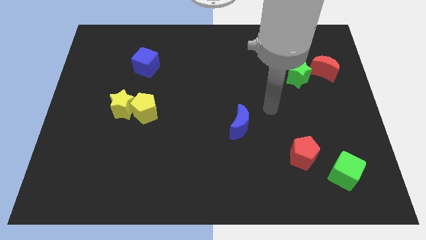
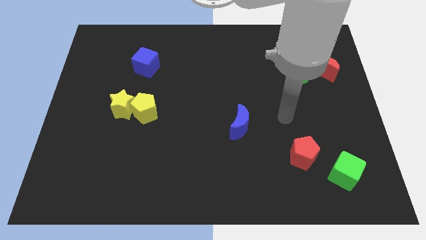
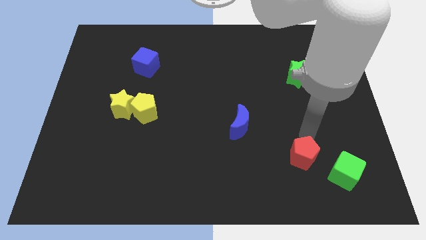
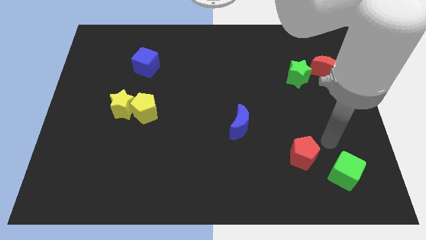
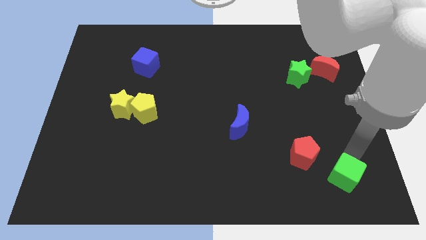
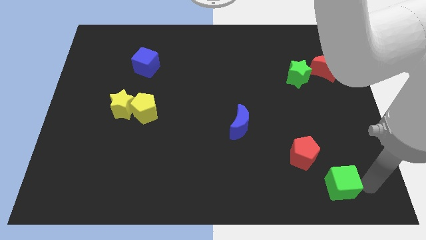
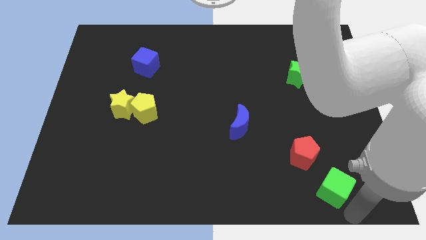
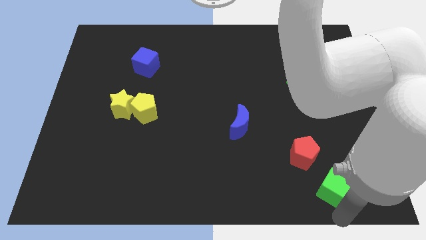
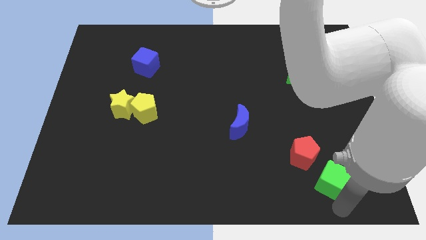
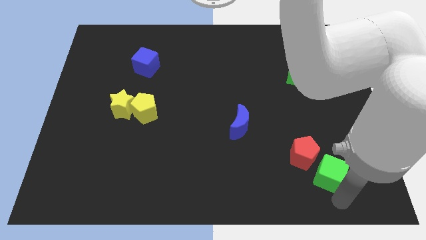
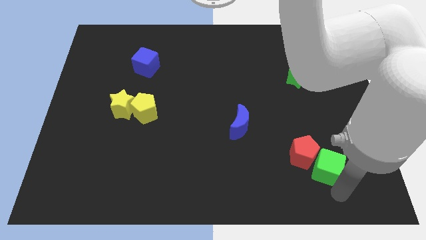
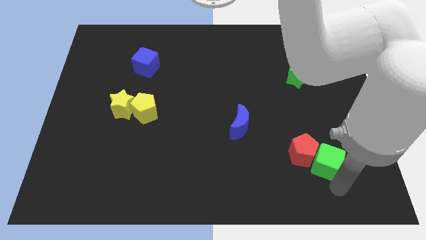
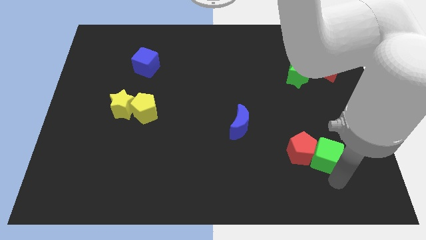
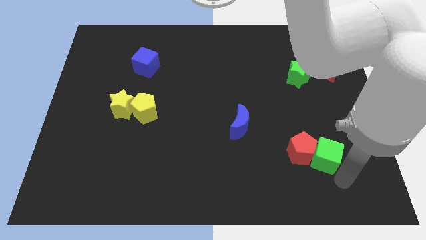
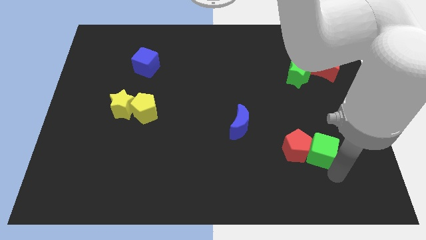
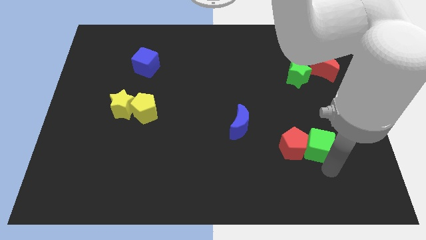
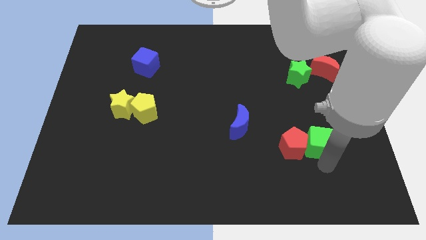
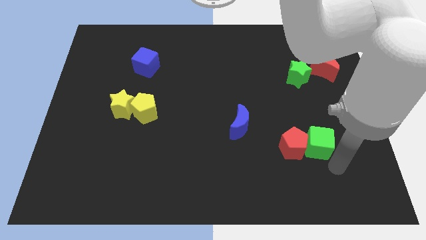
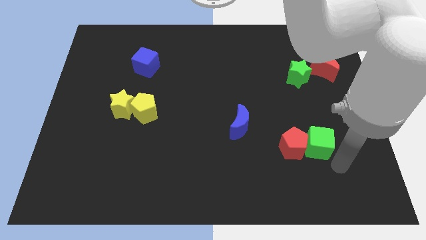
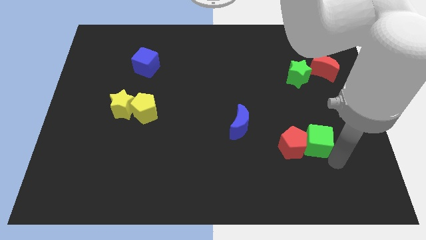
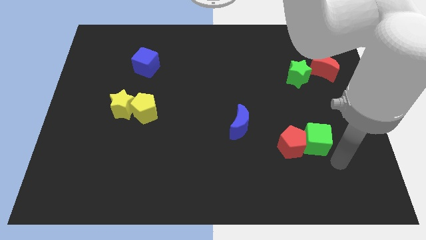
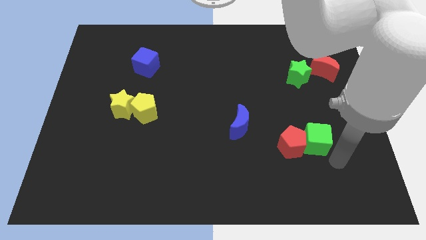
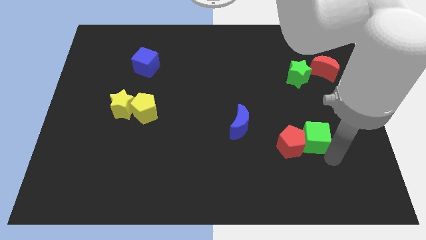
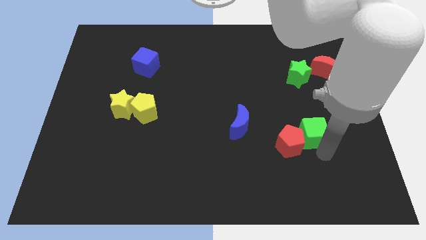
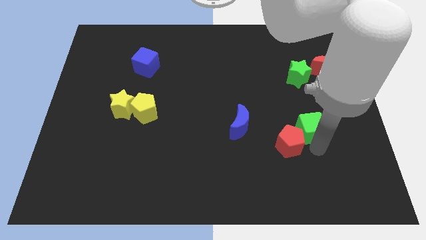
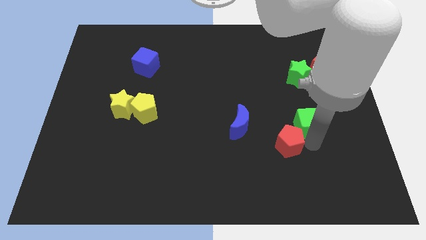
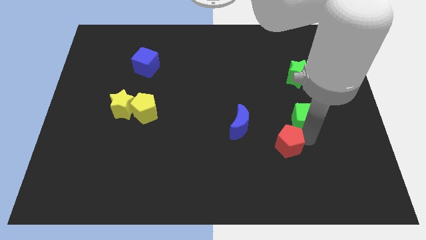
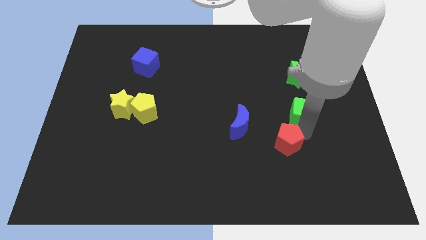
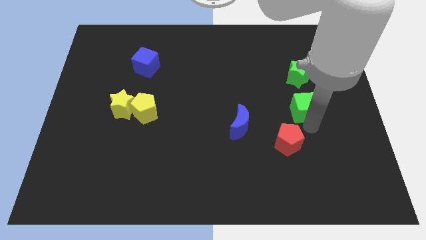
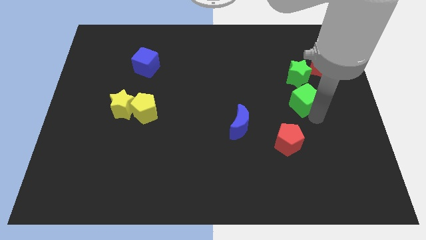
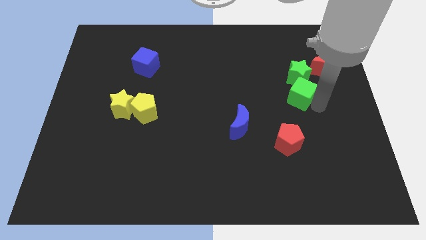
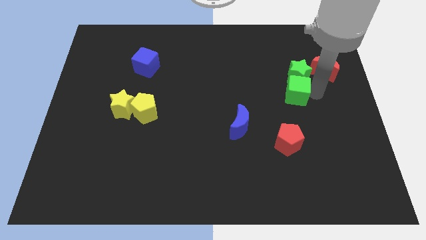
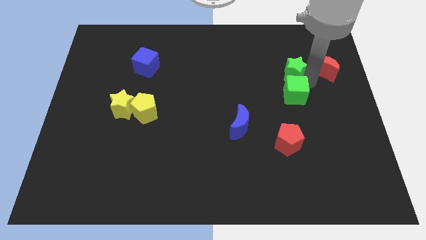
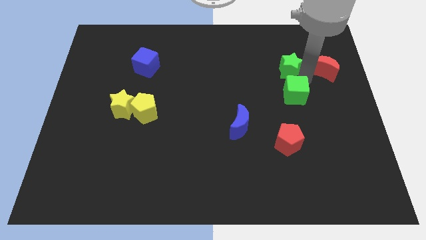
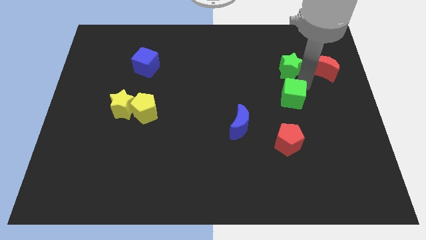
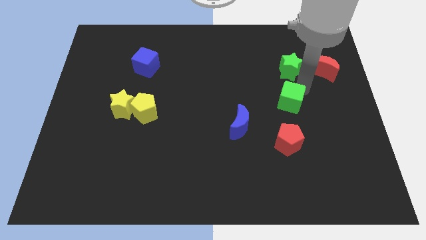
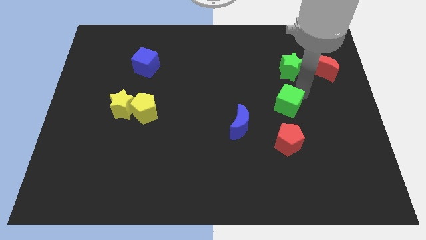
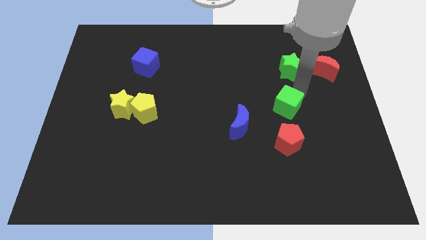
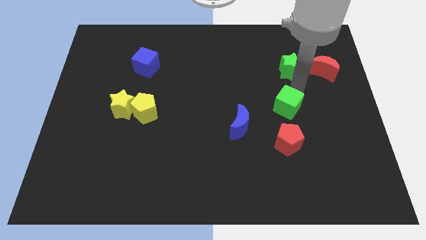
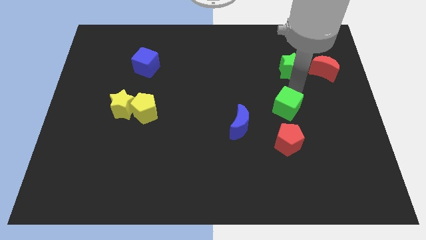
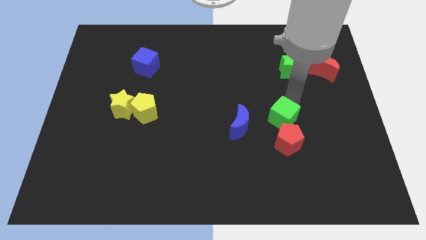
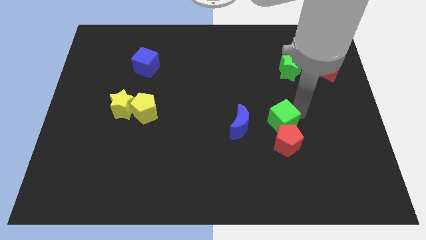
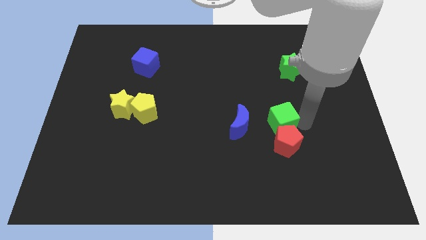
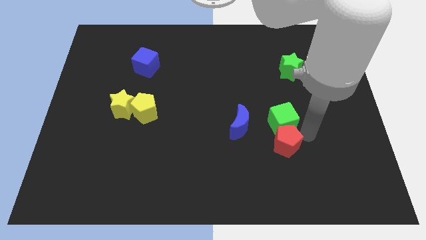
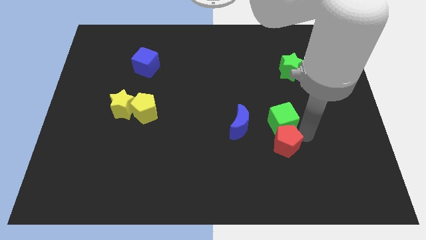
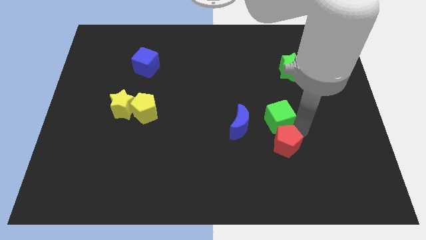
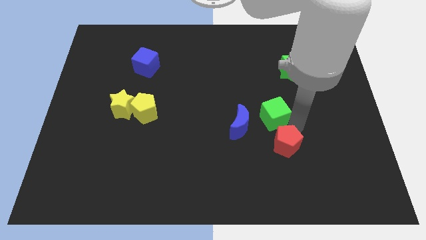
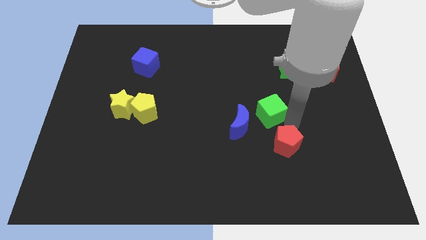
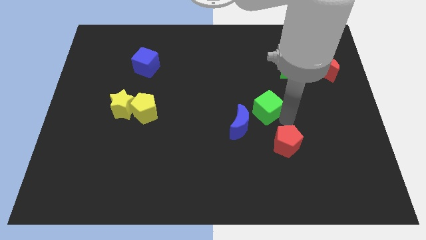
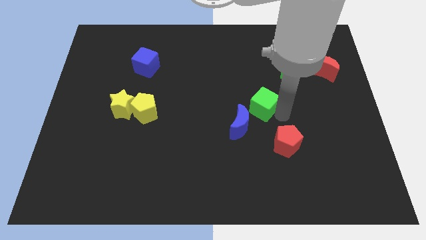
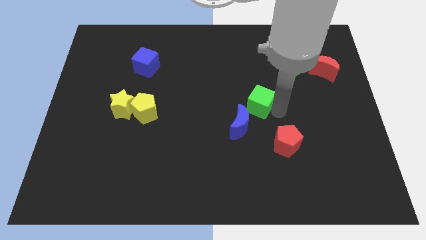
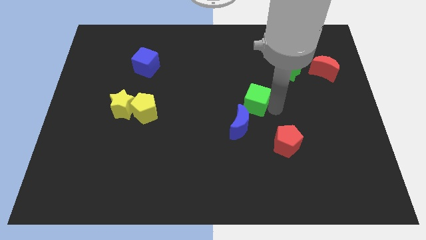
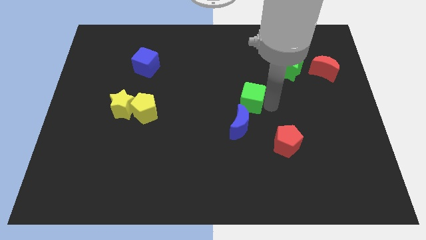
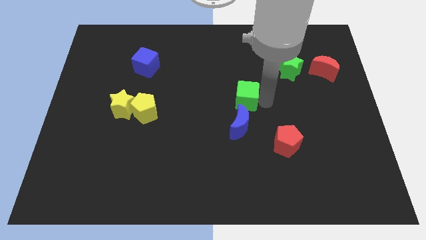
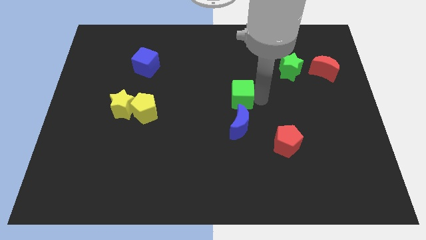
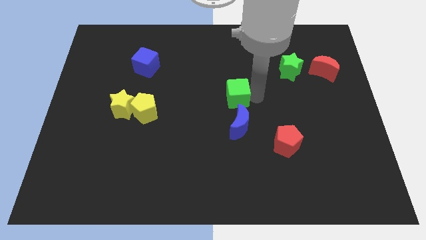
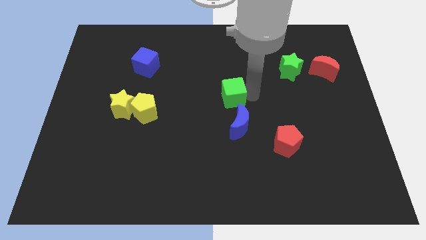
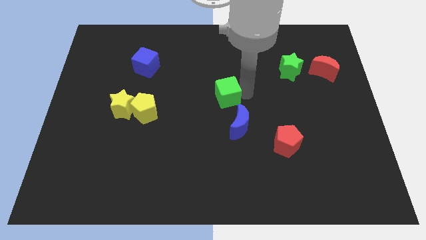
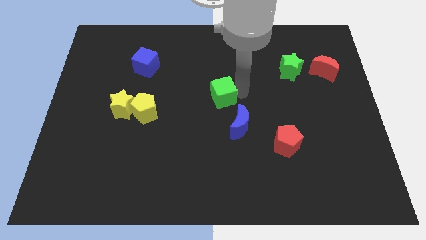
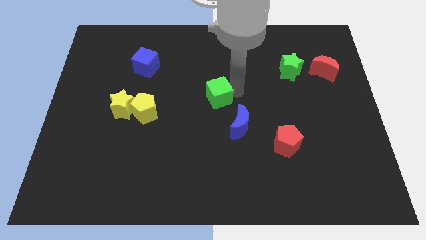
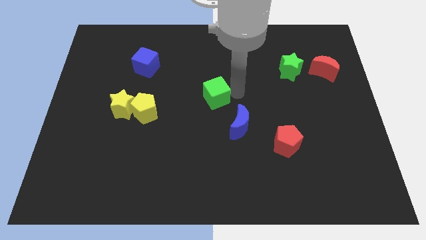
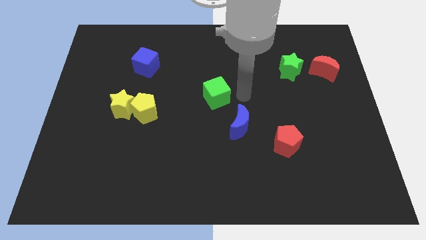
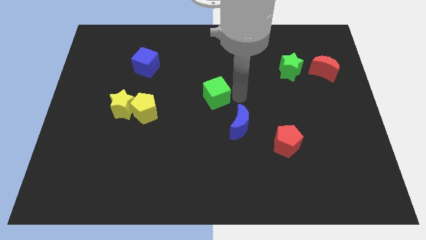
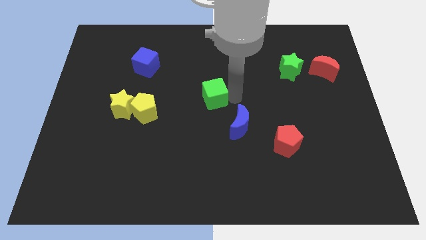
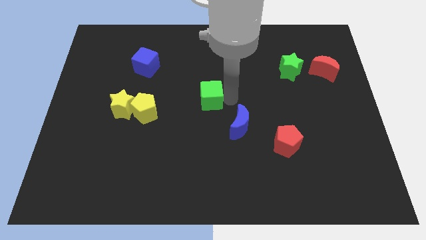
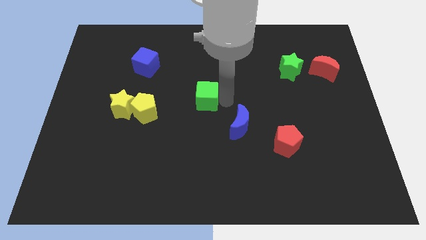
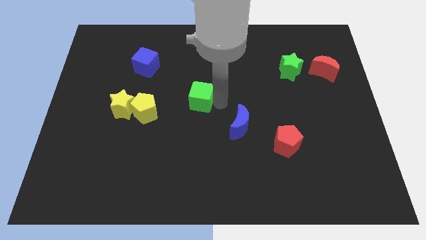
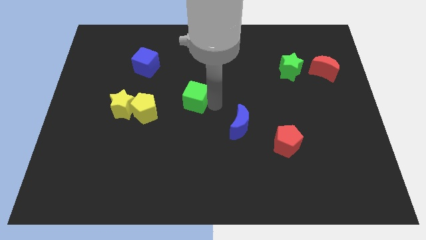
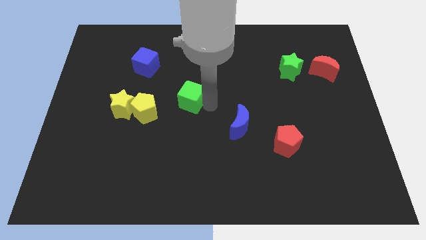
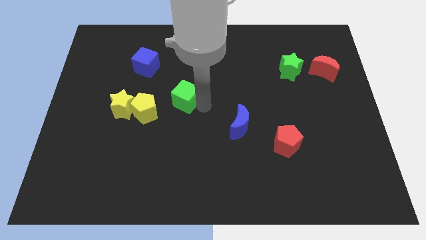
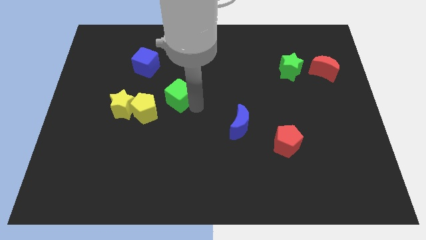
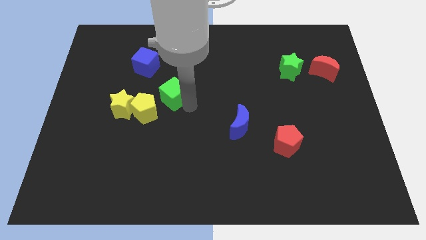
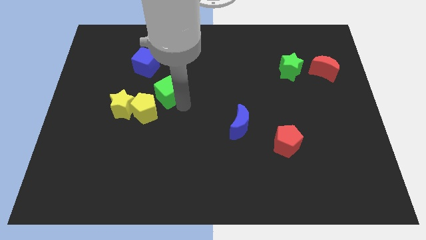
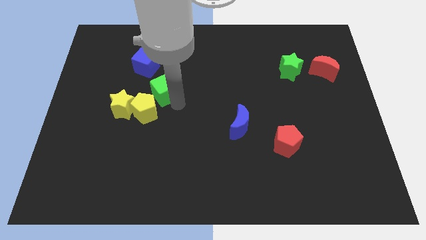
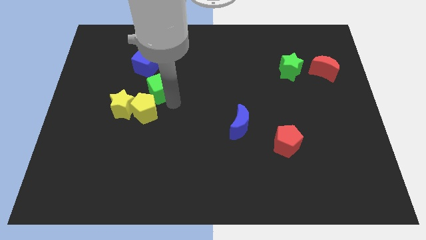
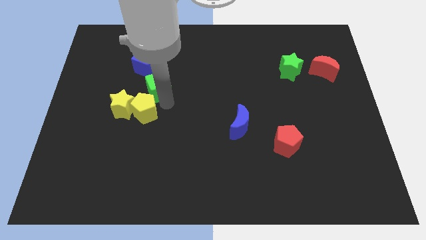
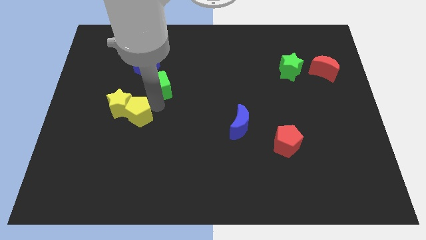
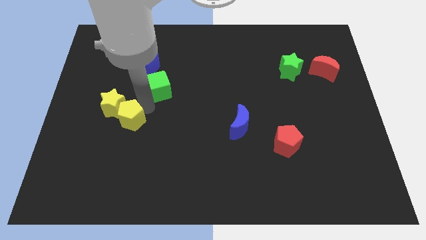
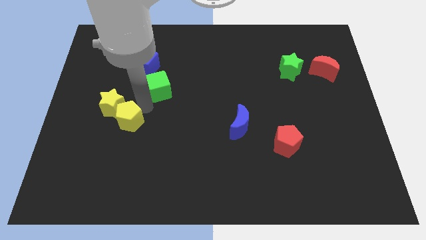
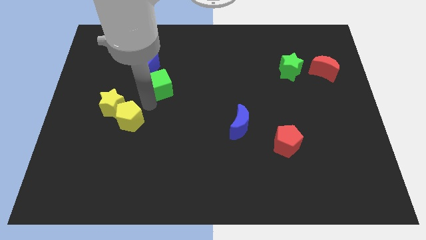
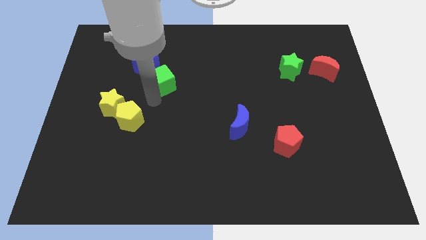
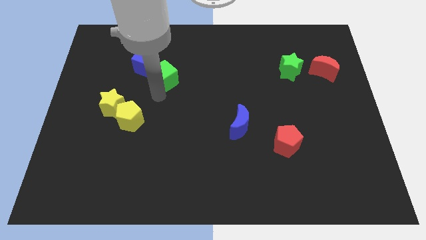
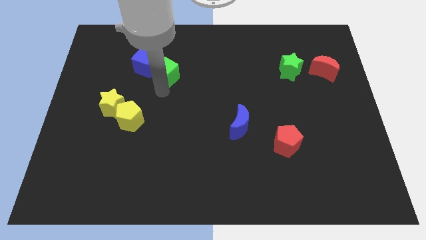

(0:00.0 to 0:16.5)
slide the green cube close to the blue cube
